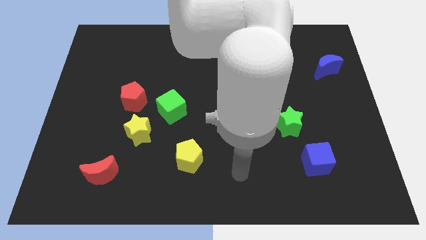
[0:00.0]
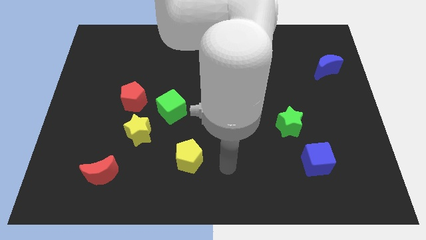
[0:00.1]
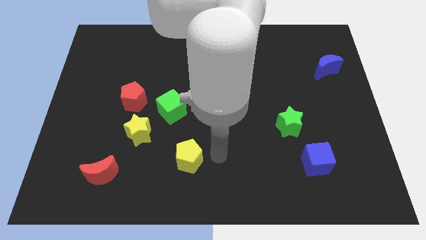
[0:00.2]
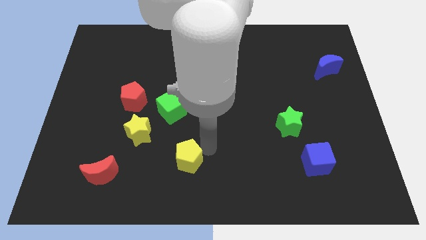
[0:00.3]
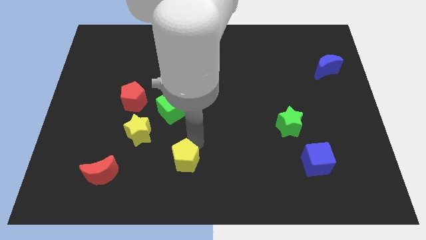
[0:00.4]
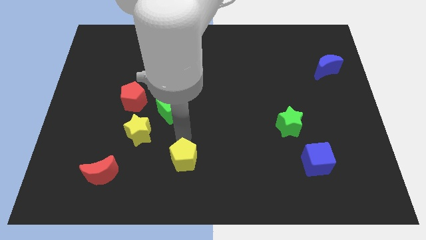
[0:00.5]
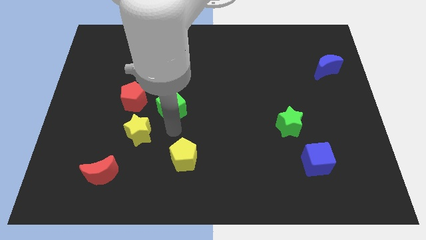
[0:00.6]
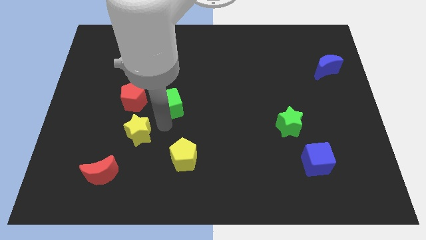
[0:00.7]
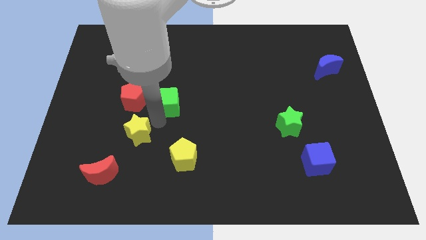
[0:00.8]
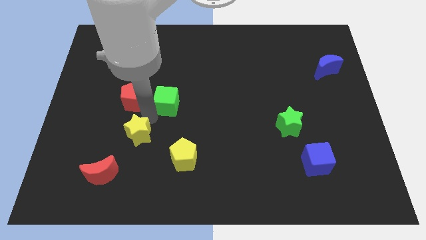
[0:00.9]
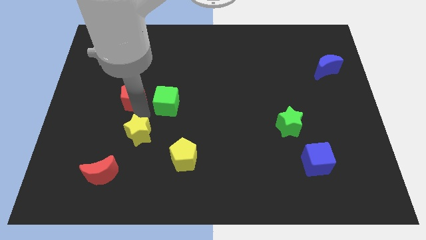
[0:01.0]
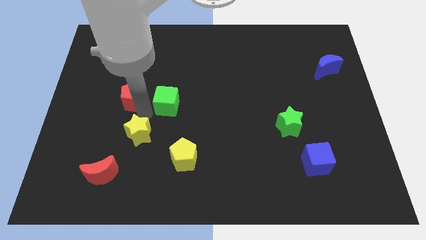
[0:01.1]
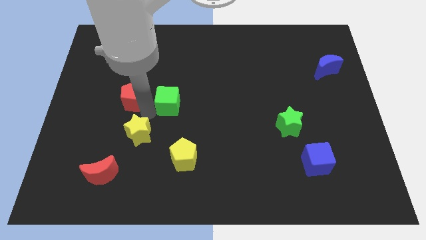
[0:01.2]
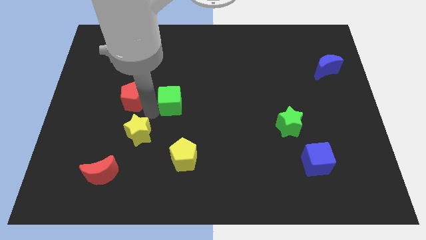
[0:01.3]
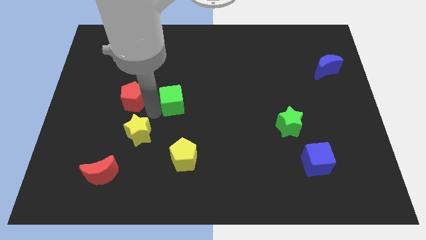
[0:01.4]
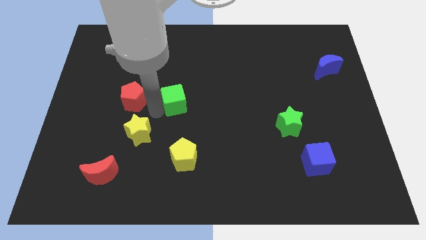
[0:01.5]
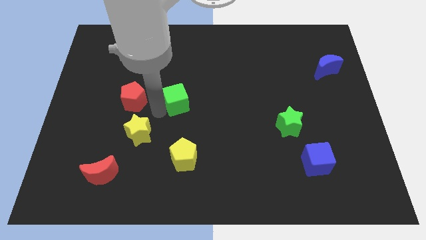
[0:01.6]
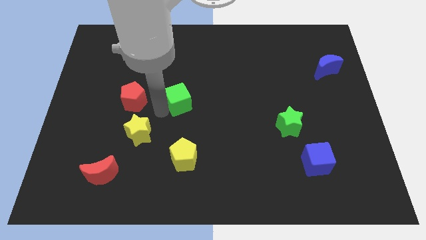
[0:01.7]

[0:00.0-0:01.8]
pull the green cube apart from the yellow star and red pentagon

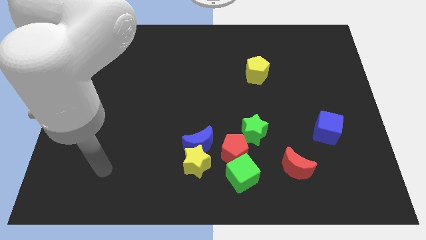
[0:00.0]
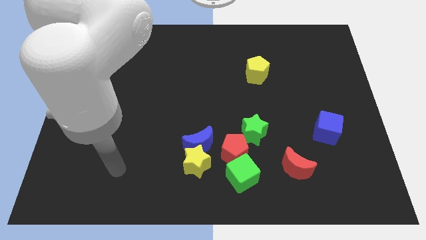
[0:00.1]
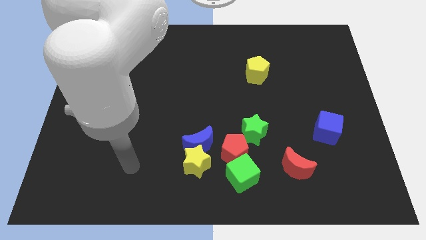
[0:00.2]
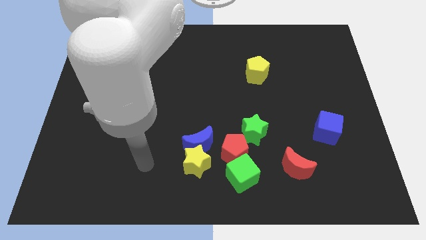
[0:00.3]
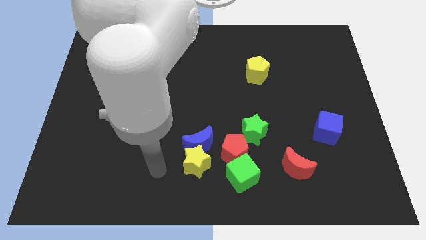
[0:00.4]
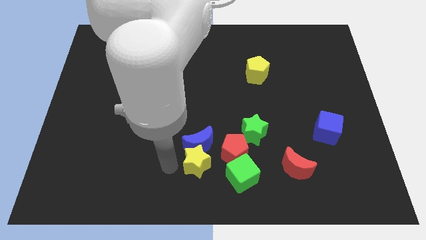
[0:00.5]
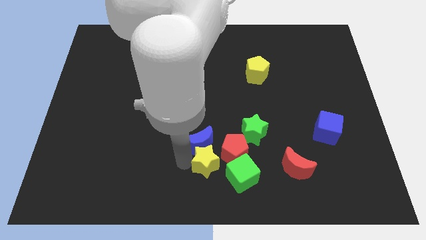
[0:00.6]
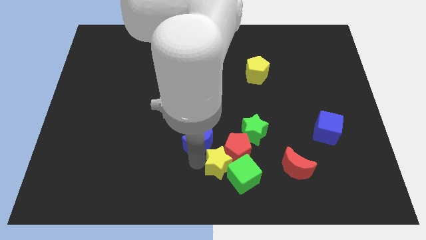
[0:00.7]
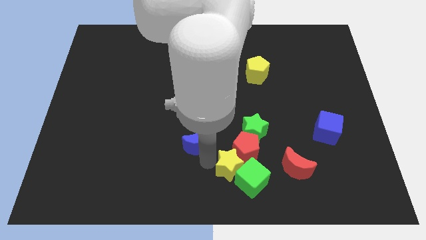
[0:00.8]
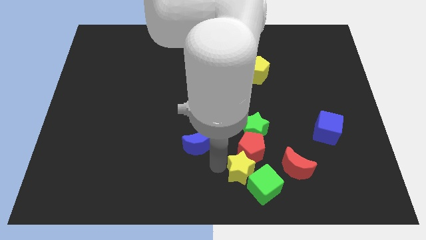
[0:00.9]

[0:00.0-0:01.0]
separate the blue moon from the yellow star and red pentagon

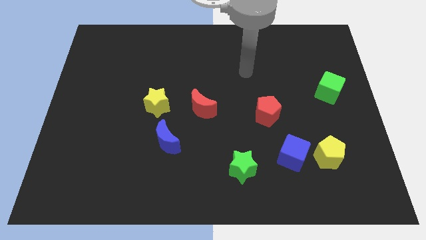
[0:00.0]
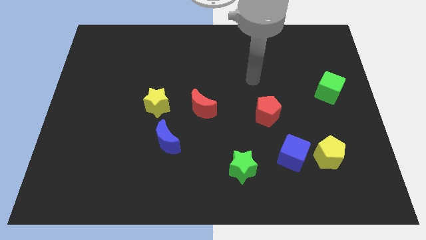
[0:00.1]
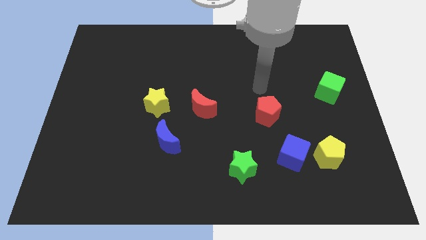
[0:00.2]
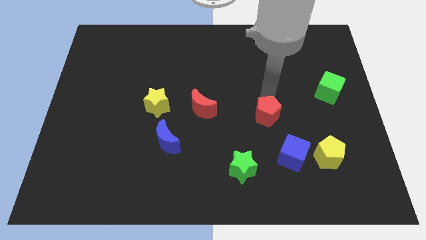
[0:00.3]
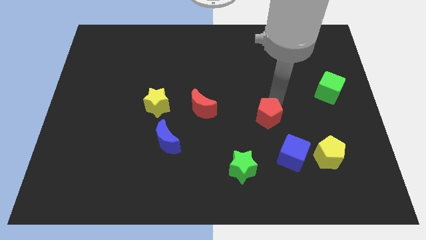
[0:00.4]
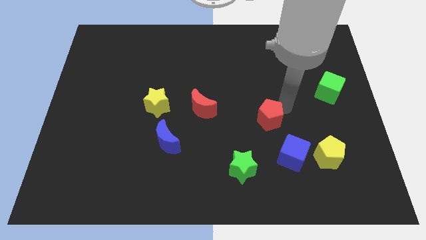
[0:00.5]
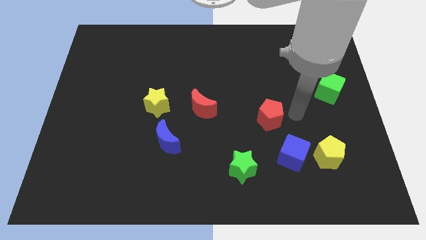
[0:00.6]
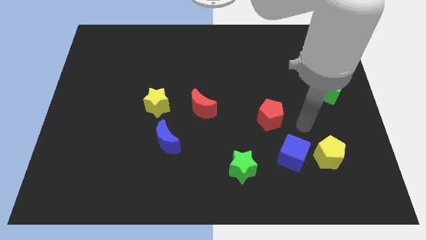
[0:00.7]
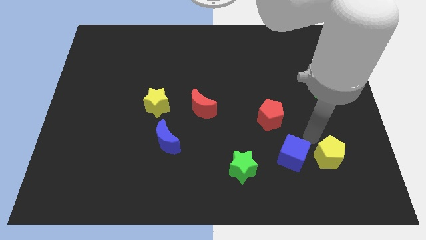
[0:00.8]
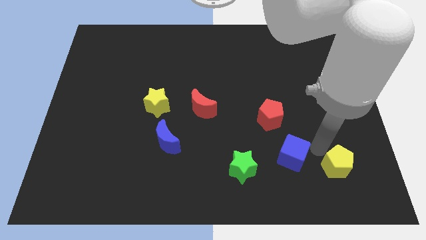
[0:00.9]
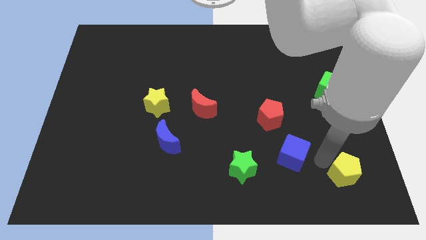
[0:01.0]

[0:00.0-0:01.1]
pull the blue cube apart from the yellow pentagon

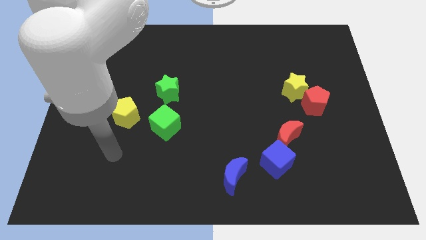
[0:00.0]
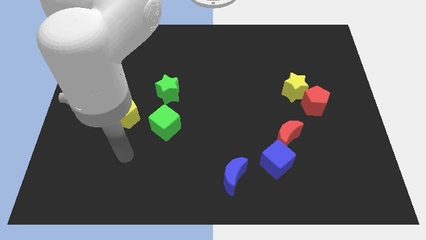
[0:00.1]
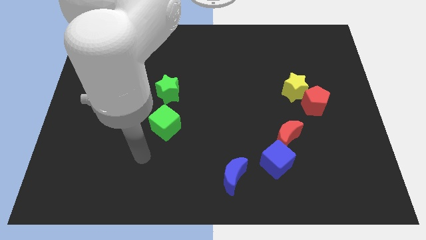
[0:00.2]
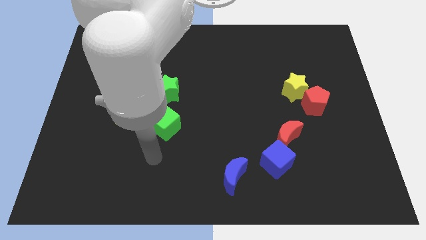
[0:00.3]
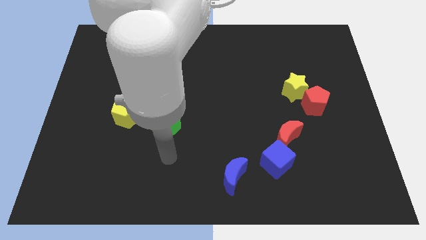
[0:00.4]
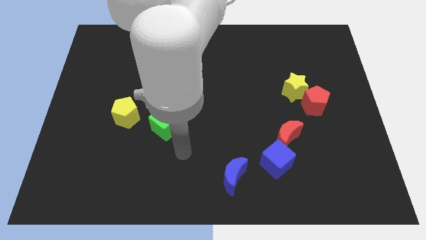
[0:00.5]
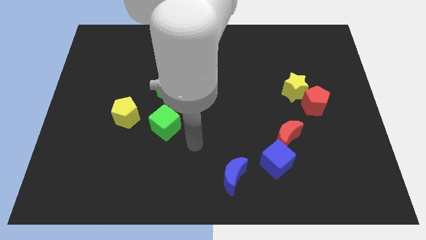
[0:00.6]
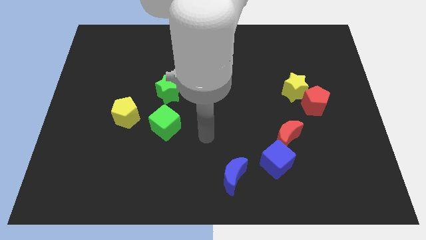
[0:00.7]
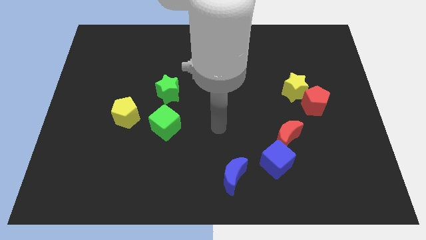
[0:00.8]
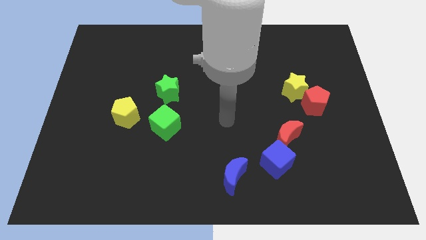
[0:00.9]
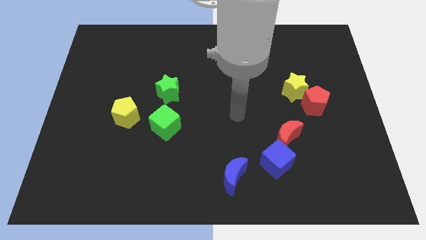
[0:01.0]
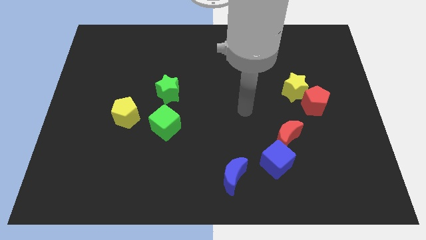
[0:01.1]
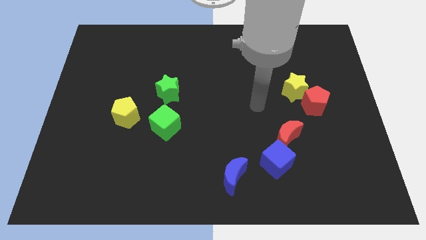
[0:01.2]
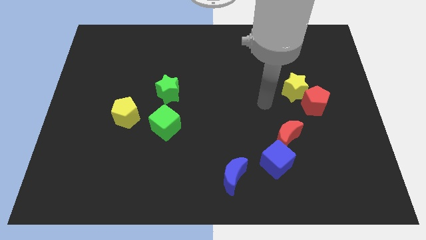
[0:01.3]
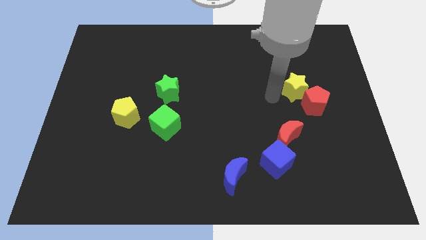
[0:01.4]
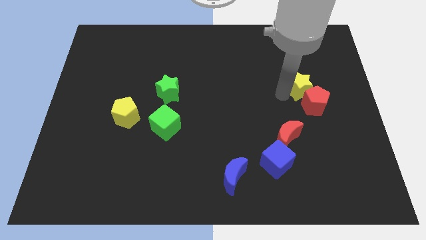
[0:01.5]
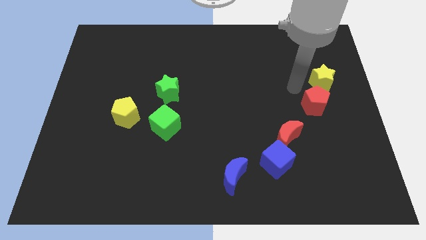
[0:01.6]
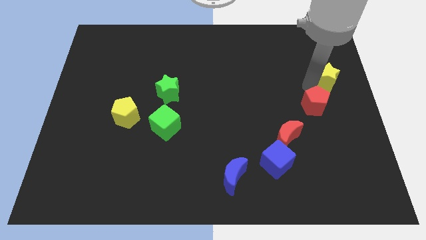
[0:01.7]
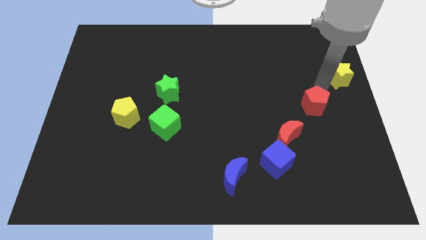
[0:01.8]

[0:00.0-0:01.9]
pull the red pentagon apart from the yellow star

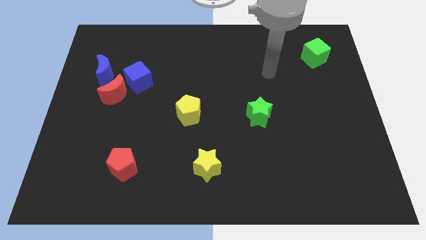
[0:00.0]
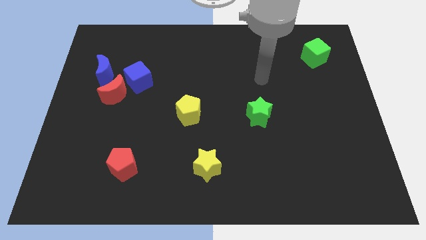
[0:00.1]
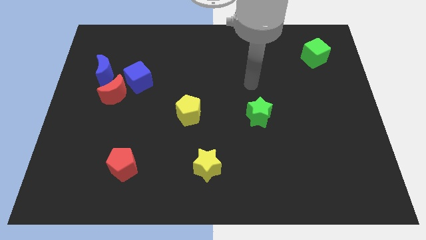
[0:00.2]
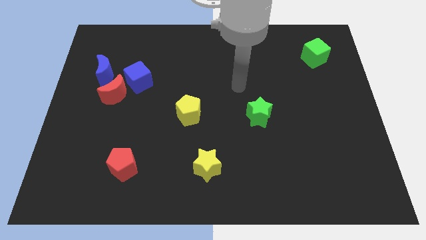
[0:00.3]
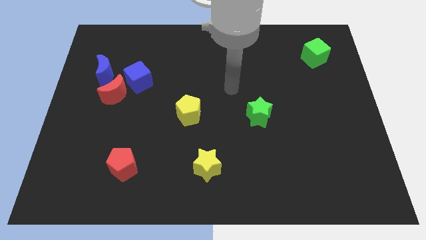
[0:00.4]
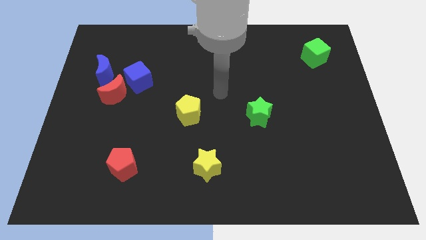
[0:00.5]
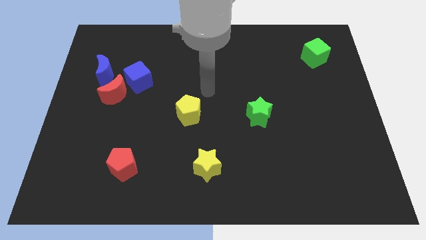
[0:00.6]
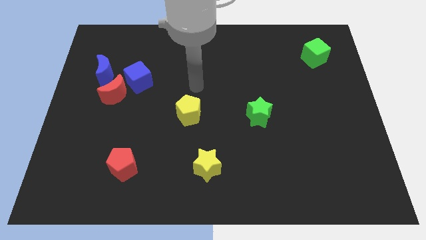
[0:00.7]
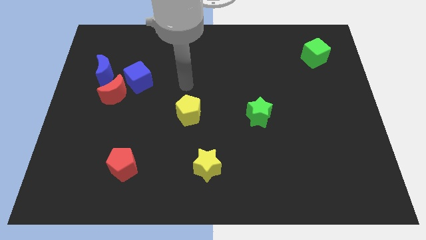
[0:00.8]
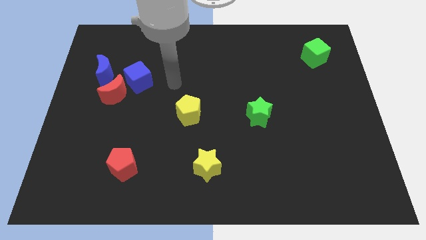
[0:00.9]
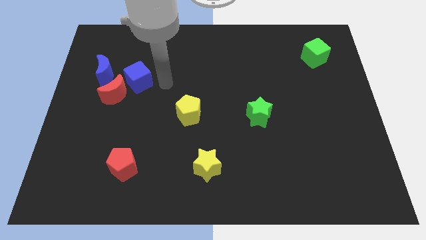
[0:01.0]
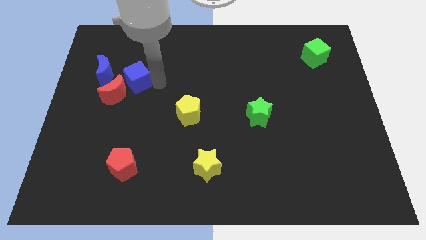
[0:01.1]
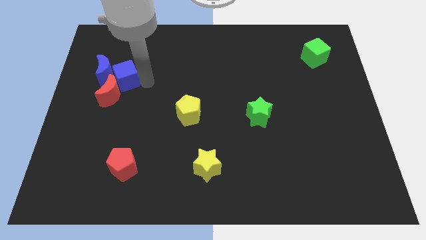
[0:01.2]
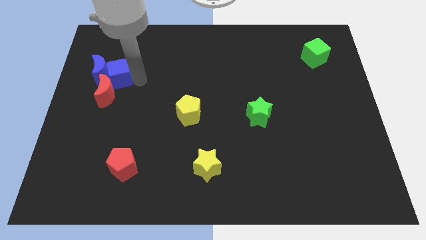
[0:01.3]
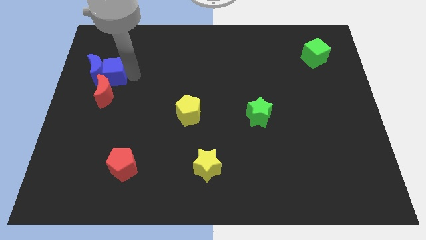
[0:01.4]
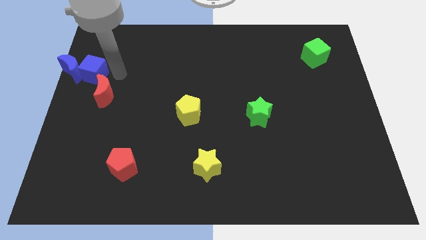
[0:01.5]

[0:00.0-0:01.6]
separate the red moon from the blue cube and blue moon

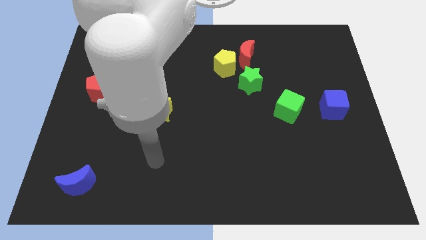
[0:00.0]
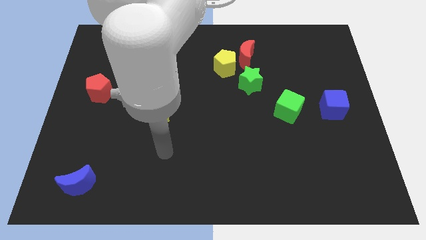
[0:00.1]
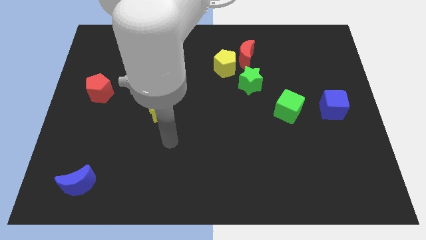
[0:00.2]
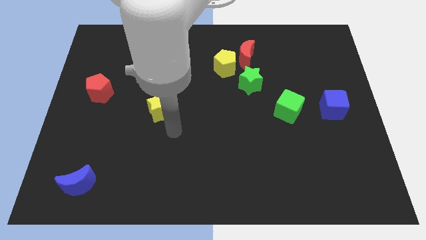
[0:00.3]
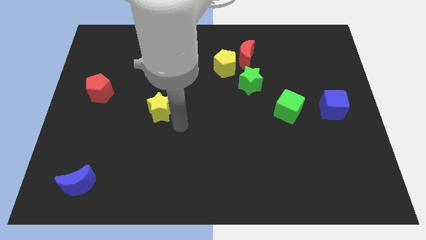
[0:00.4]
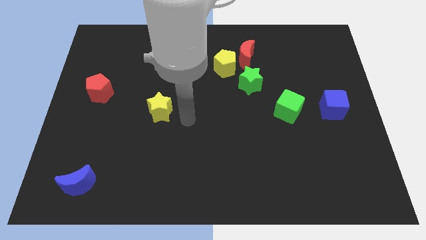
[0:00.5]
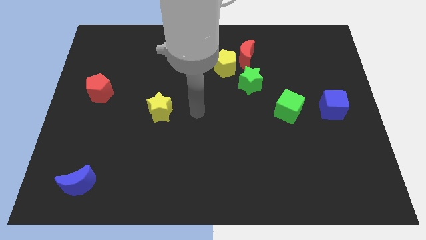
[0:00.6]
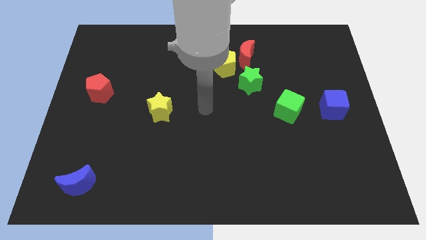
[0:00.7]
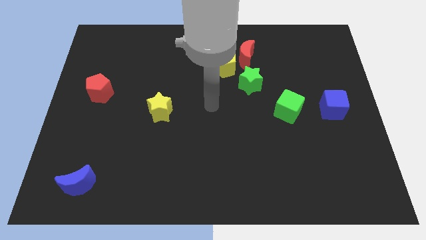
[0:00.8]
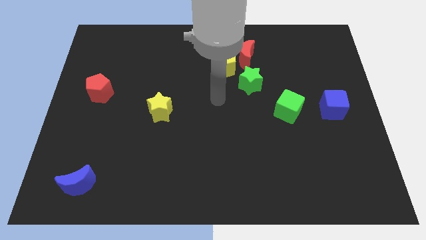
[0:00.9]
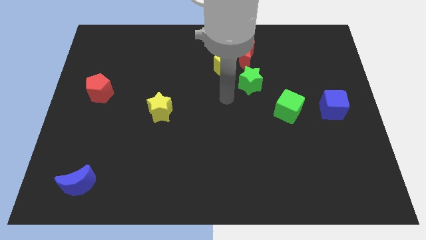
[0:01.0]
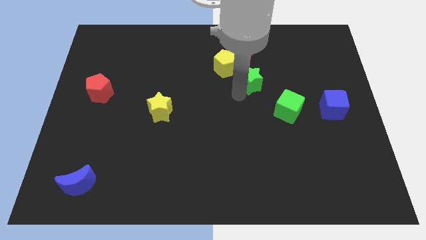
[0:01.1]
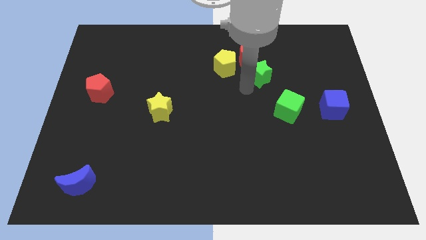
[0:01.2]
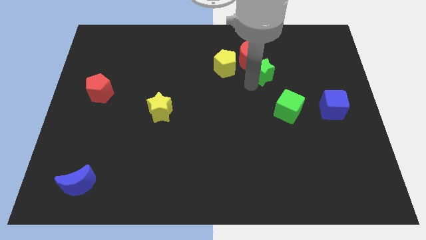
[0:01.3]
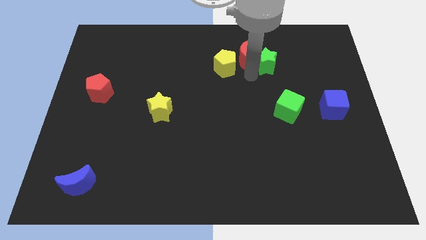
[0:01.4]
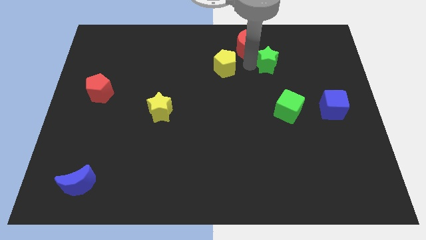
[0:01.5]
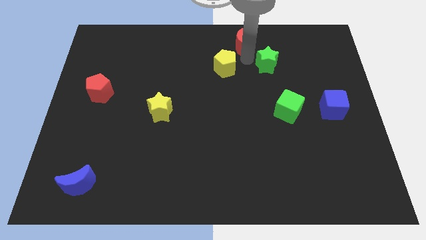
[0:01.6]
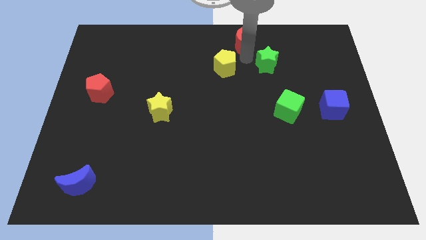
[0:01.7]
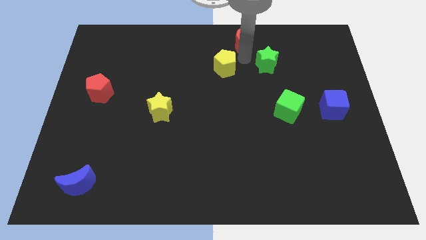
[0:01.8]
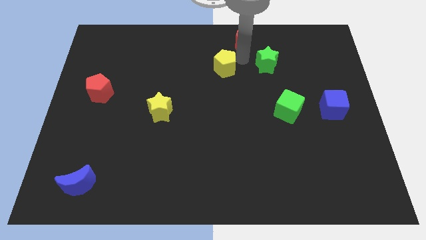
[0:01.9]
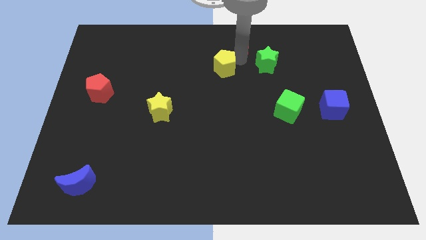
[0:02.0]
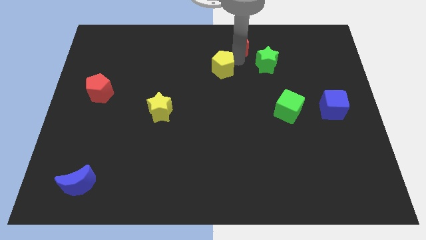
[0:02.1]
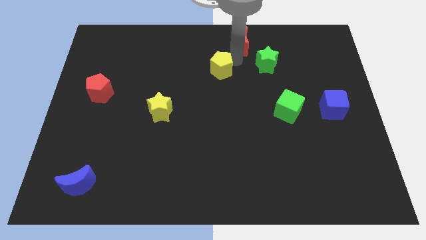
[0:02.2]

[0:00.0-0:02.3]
pull the yellow pentagon apart from the red moon and green star
